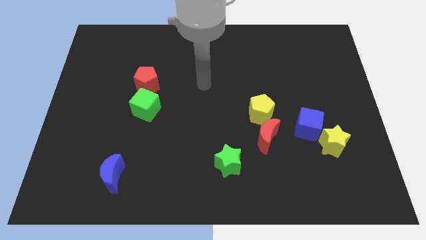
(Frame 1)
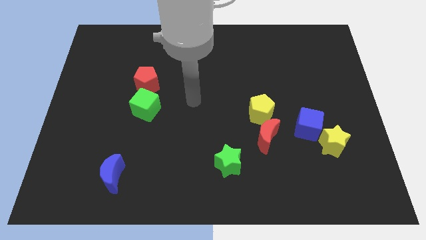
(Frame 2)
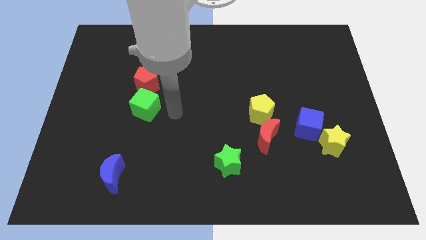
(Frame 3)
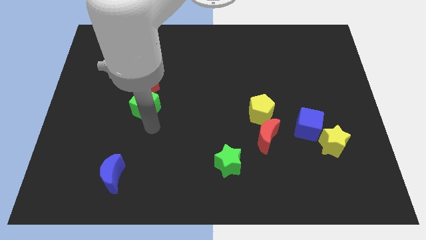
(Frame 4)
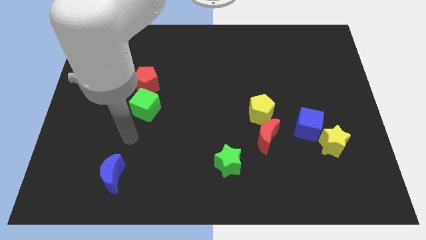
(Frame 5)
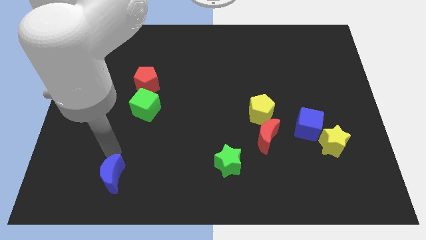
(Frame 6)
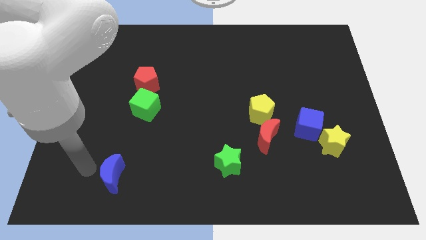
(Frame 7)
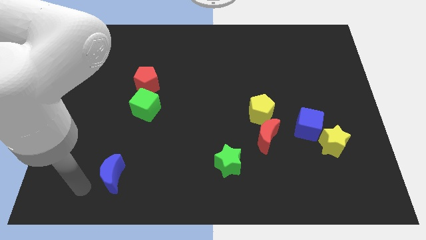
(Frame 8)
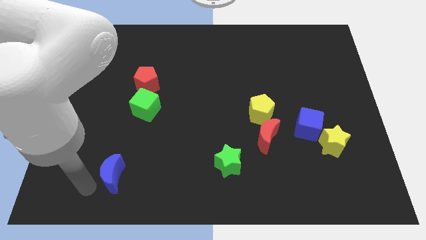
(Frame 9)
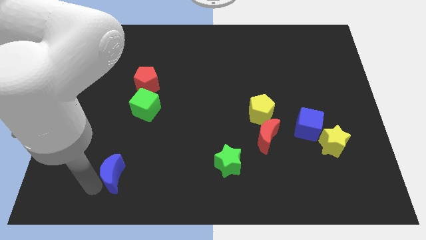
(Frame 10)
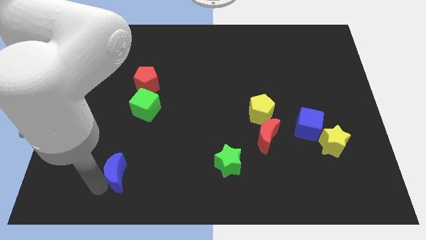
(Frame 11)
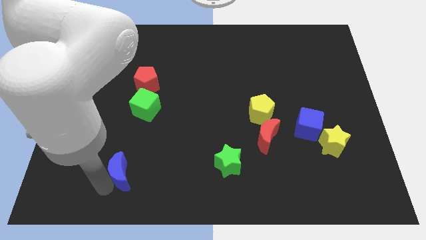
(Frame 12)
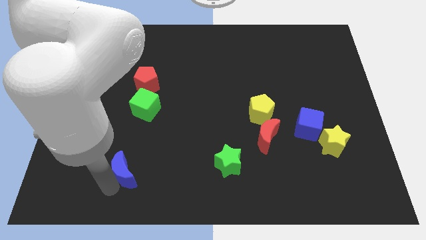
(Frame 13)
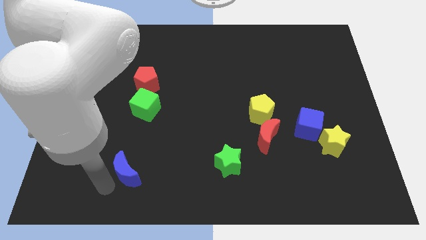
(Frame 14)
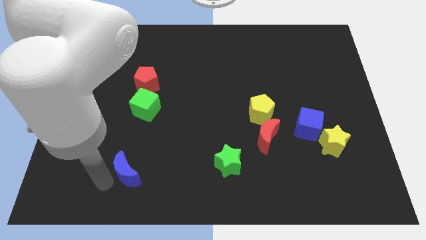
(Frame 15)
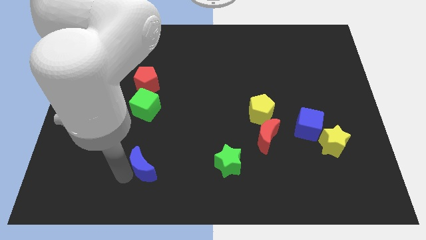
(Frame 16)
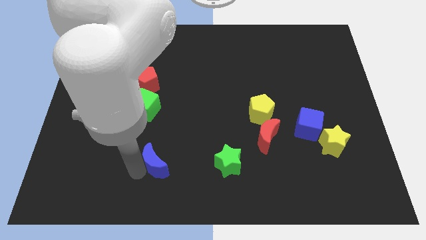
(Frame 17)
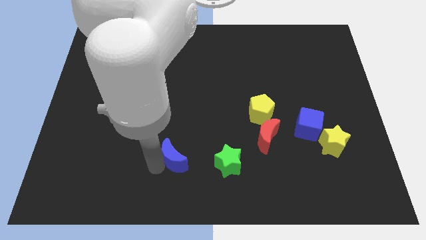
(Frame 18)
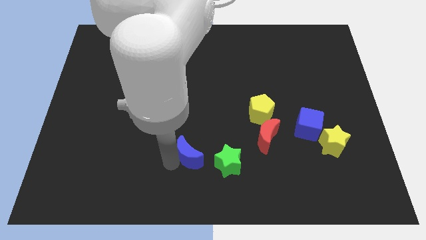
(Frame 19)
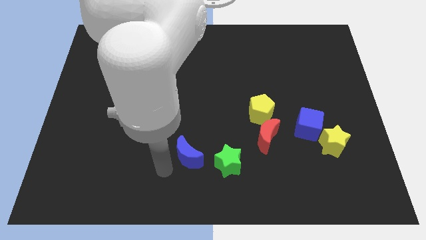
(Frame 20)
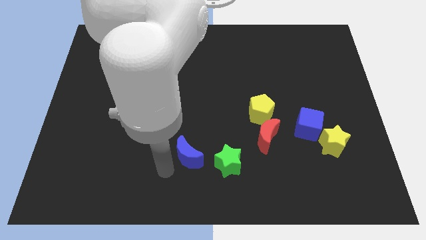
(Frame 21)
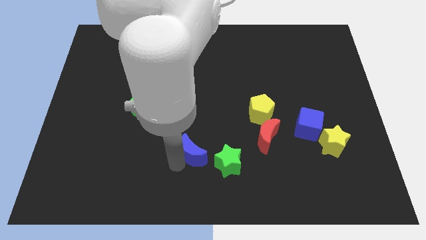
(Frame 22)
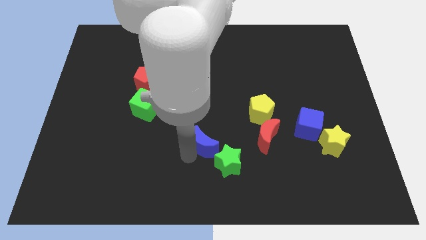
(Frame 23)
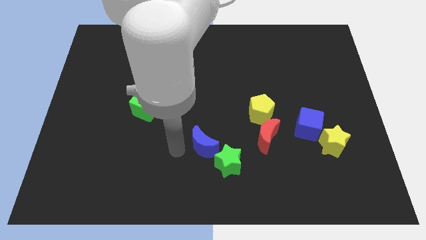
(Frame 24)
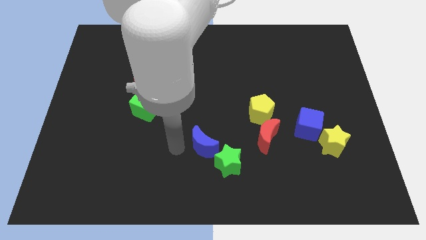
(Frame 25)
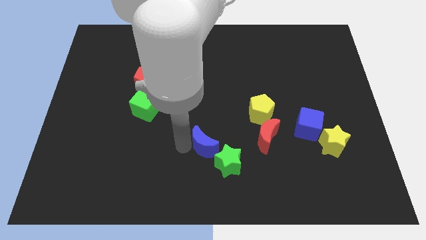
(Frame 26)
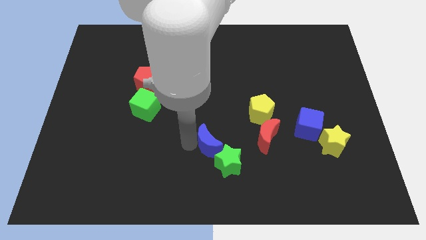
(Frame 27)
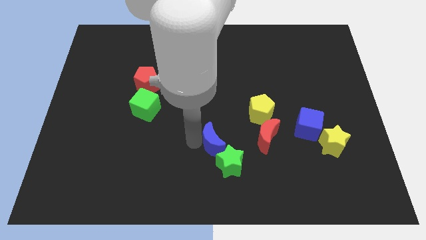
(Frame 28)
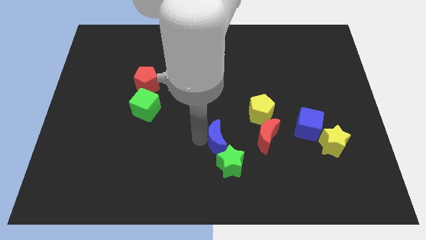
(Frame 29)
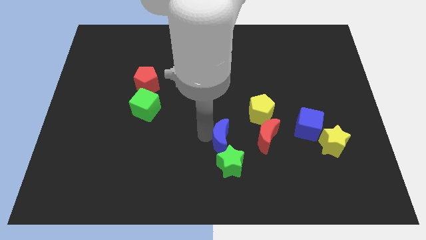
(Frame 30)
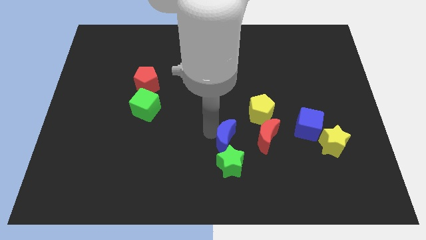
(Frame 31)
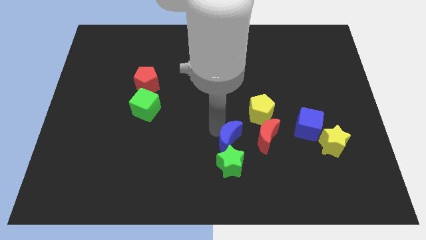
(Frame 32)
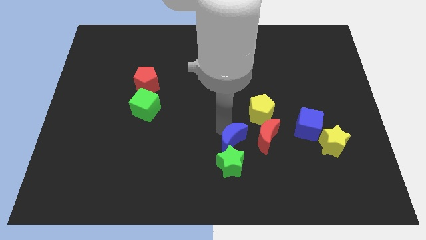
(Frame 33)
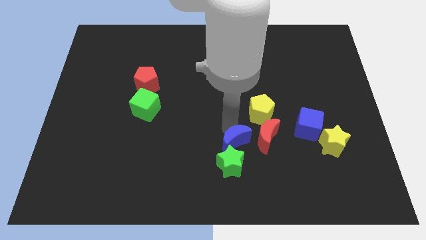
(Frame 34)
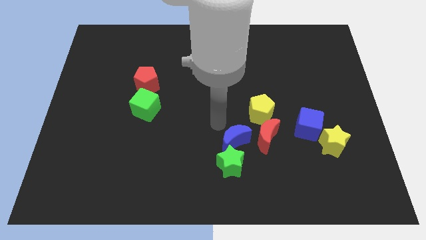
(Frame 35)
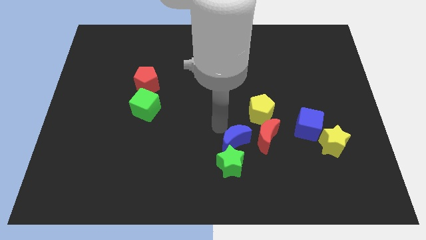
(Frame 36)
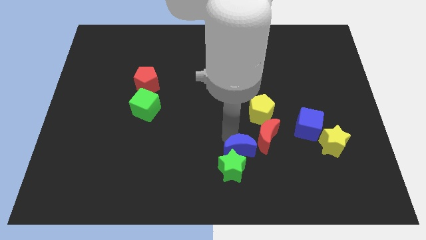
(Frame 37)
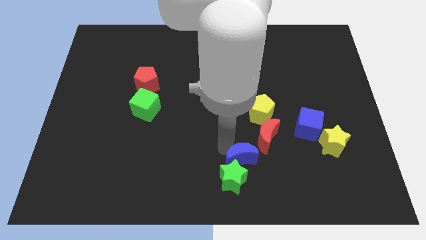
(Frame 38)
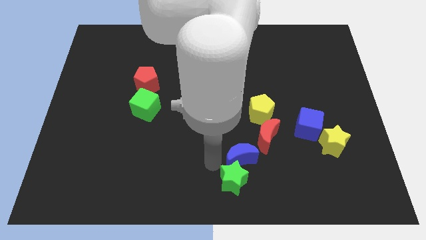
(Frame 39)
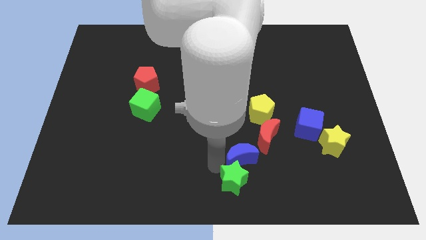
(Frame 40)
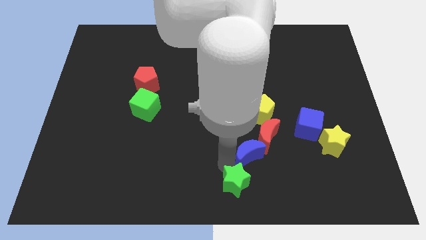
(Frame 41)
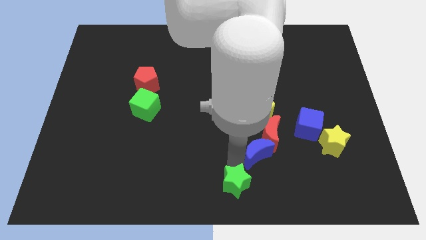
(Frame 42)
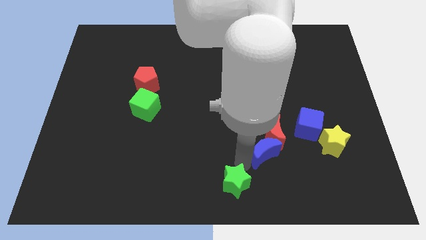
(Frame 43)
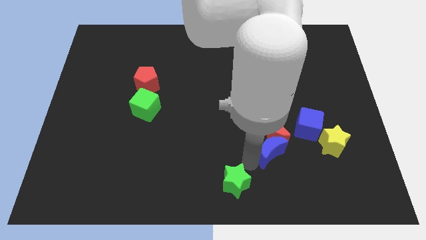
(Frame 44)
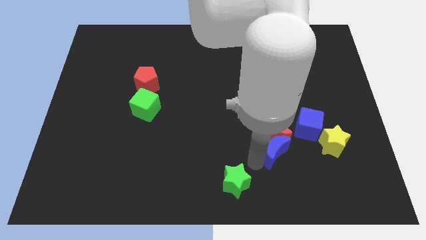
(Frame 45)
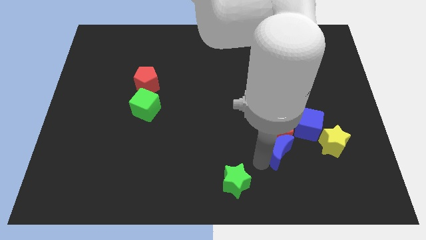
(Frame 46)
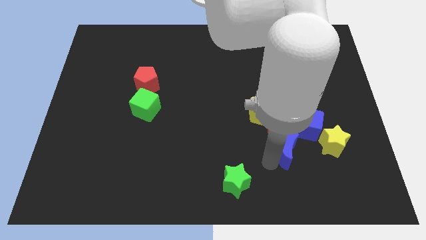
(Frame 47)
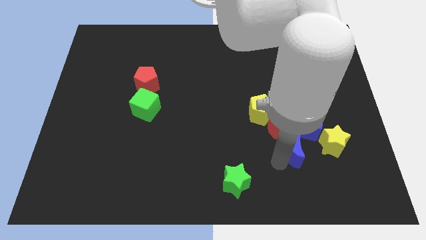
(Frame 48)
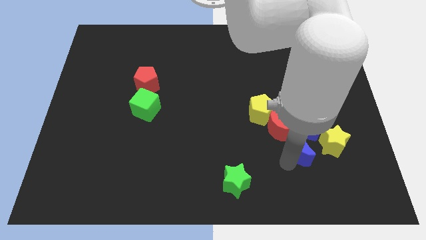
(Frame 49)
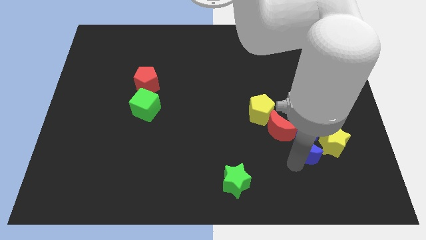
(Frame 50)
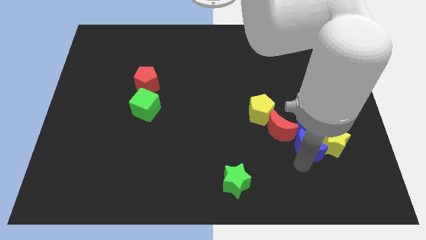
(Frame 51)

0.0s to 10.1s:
slide the blue moon next to the blue cube

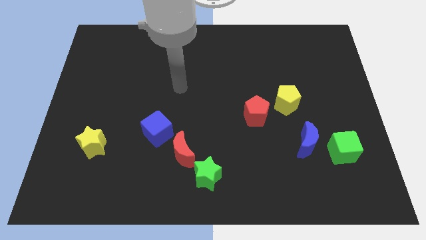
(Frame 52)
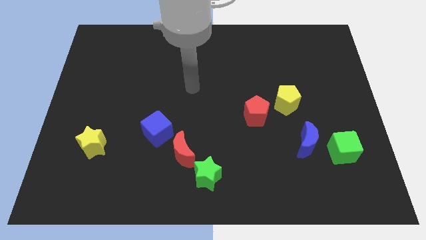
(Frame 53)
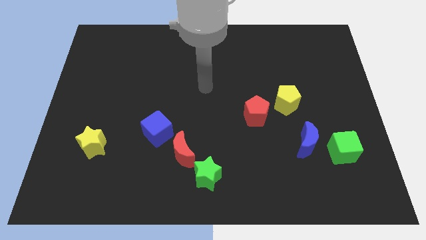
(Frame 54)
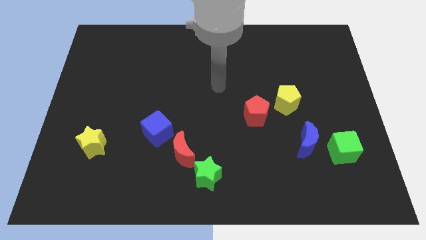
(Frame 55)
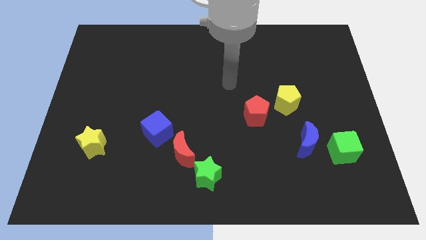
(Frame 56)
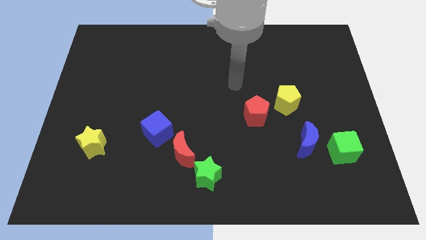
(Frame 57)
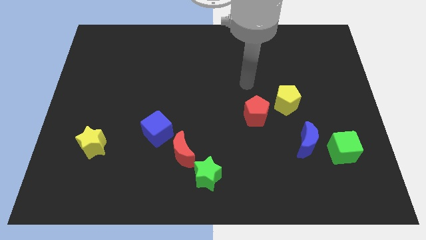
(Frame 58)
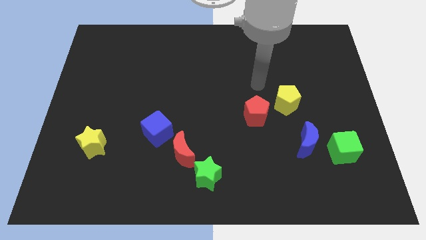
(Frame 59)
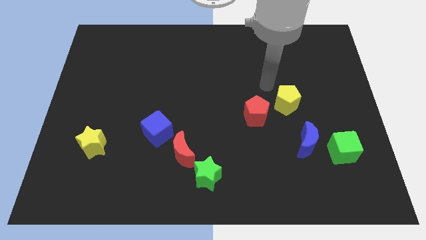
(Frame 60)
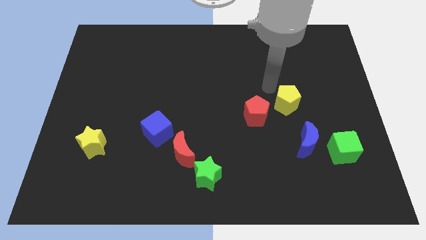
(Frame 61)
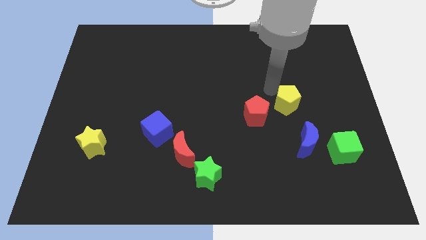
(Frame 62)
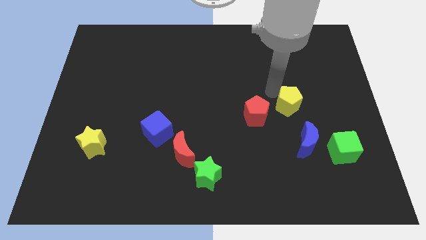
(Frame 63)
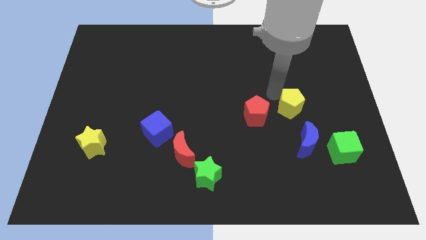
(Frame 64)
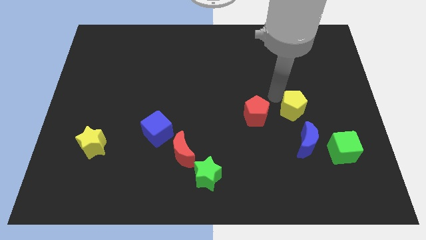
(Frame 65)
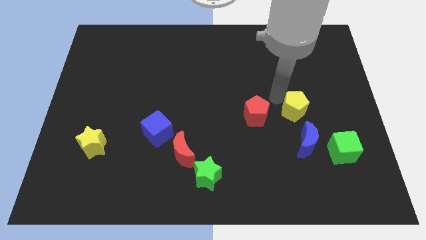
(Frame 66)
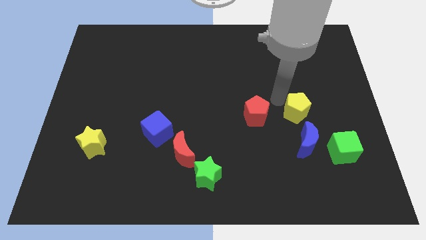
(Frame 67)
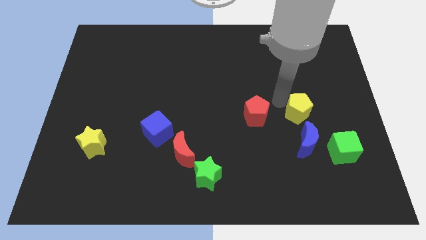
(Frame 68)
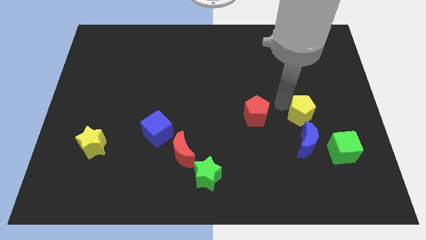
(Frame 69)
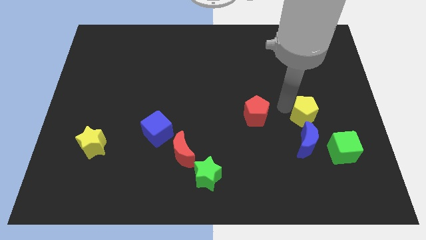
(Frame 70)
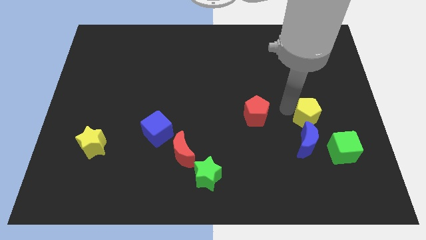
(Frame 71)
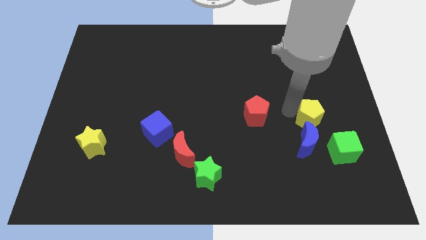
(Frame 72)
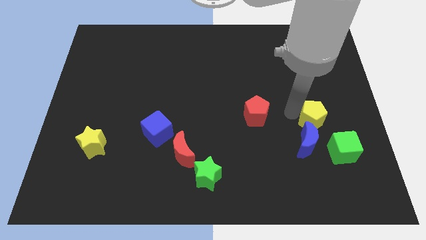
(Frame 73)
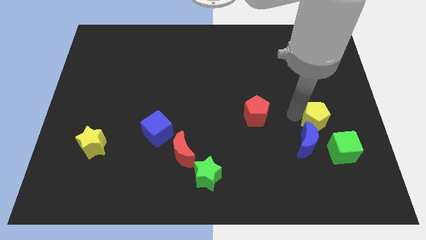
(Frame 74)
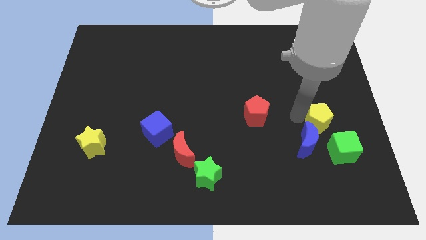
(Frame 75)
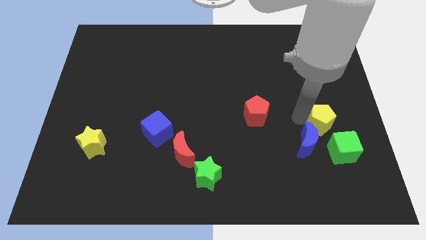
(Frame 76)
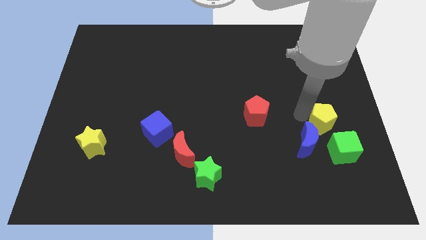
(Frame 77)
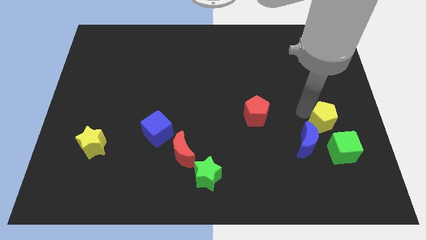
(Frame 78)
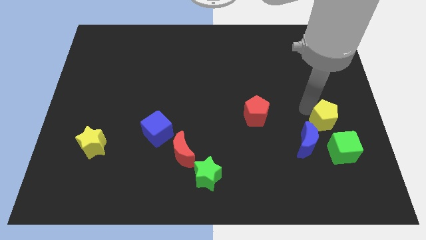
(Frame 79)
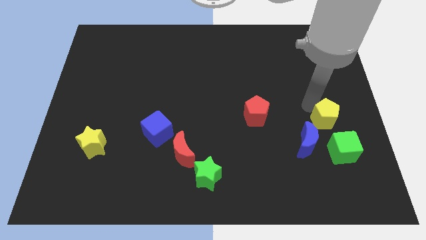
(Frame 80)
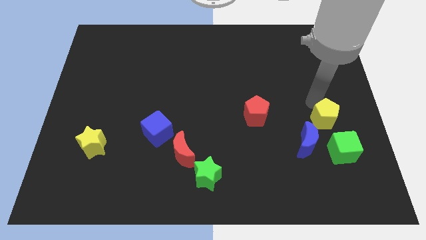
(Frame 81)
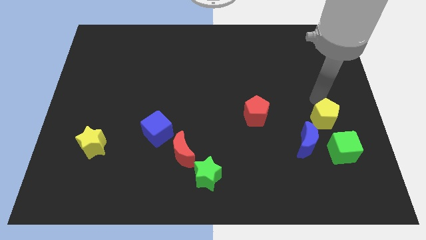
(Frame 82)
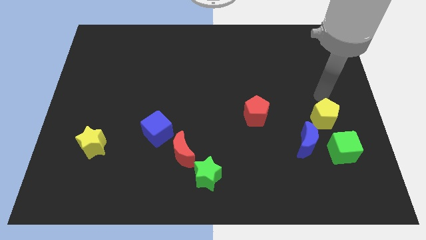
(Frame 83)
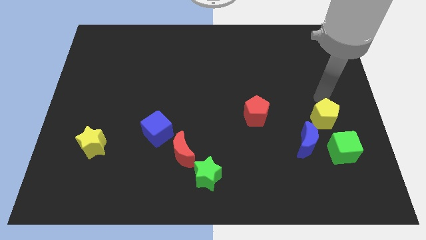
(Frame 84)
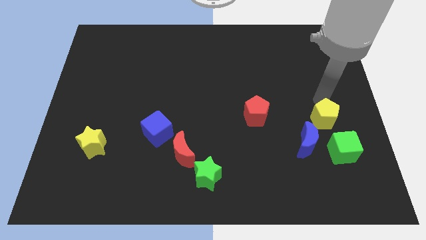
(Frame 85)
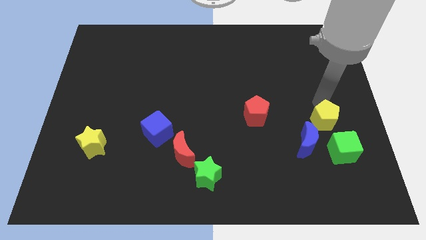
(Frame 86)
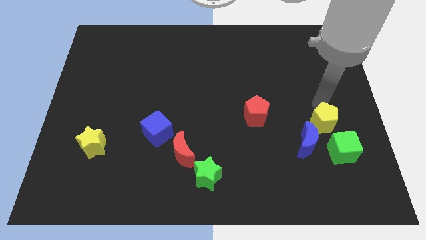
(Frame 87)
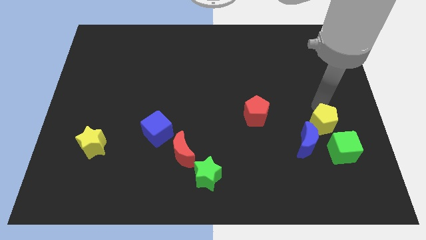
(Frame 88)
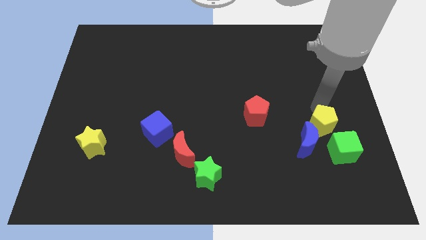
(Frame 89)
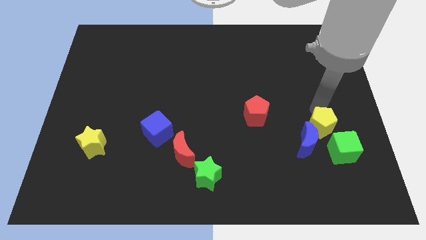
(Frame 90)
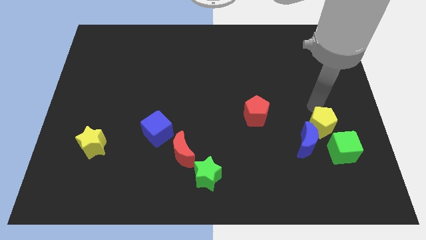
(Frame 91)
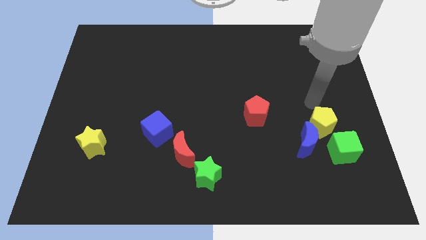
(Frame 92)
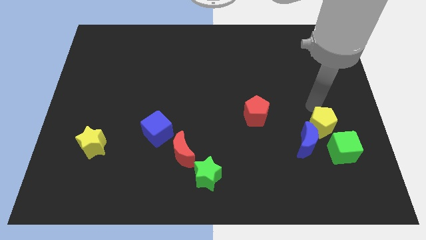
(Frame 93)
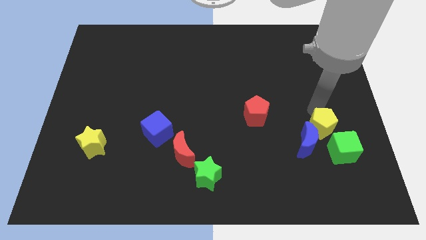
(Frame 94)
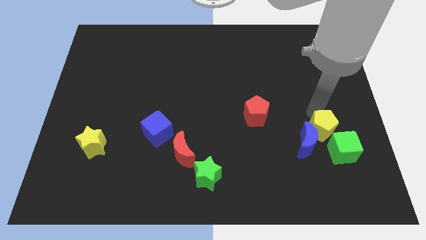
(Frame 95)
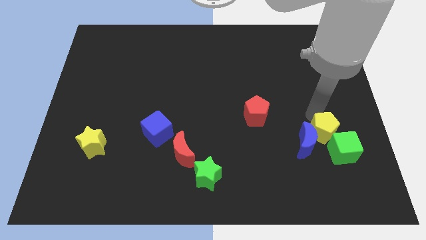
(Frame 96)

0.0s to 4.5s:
slide the yellow pentagon towards the green cube
